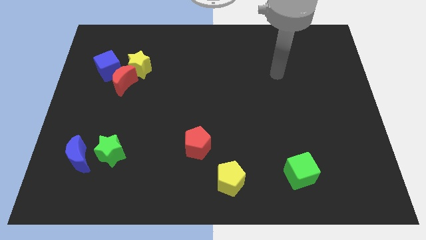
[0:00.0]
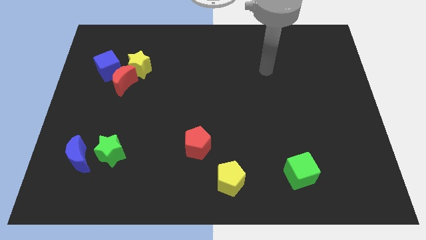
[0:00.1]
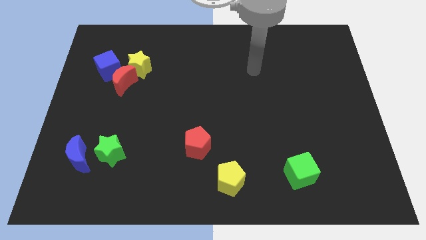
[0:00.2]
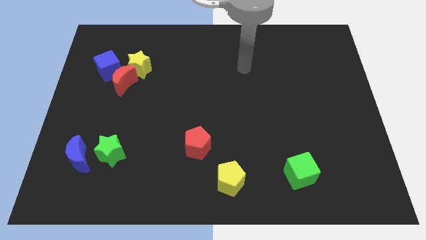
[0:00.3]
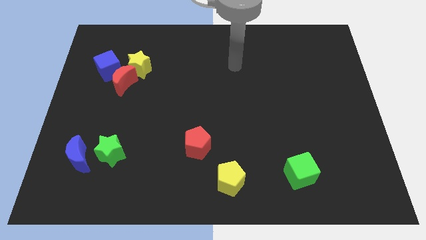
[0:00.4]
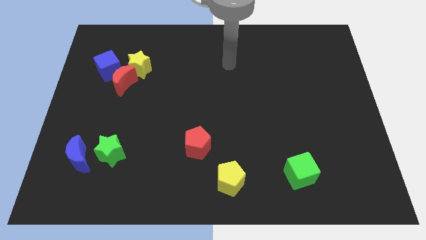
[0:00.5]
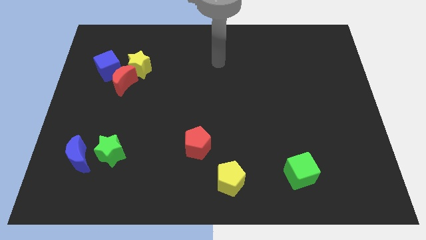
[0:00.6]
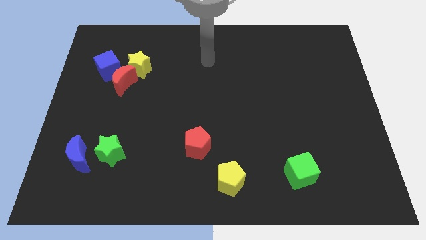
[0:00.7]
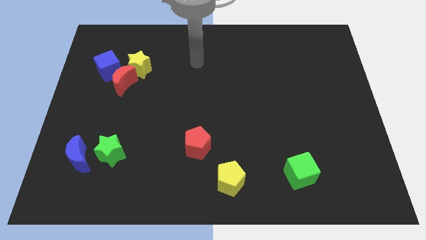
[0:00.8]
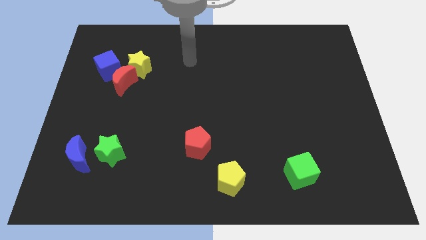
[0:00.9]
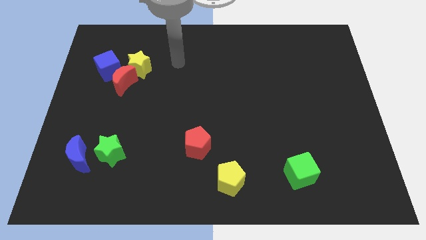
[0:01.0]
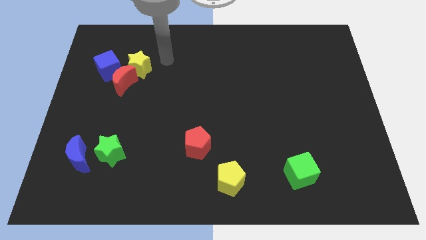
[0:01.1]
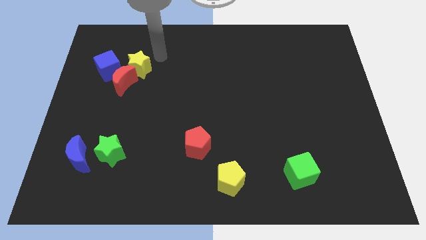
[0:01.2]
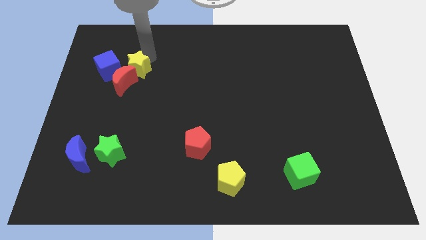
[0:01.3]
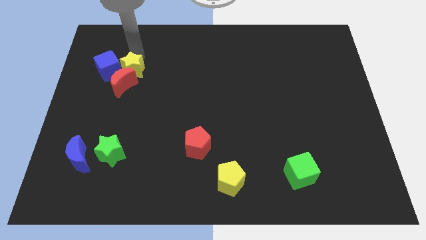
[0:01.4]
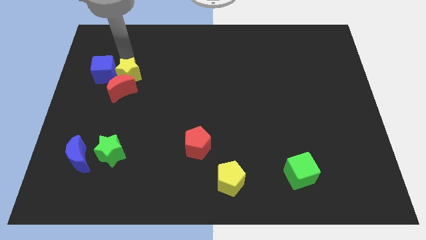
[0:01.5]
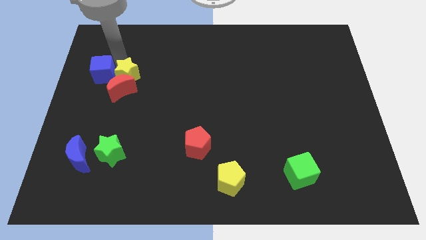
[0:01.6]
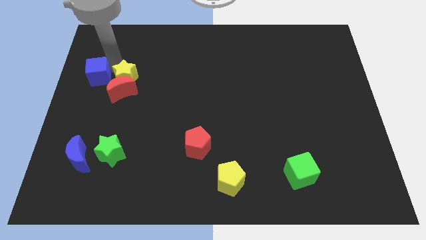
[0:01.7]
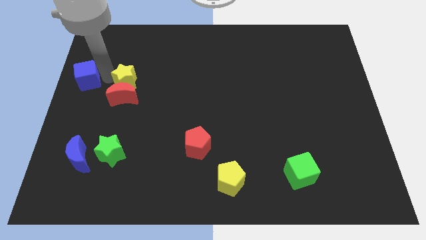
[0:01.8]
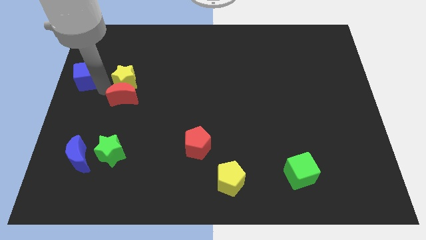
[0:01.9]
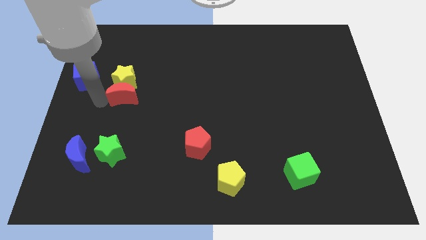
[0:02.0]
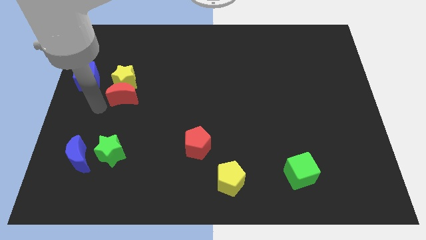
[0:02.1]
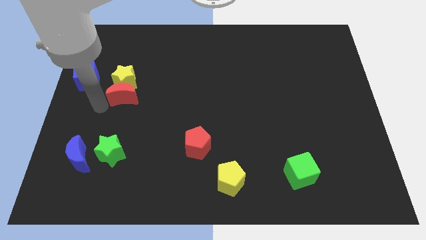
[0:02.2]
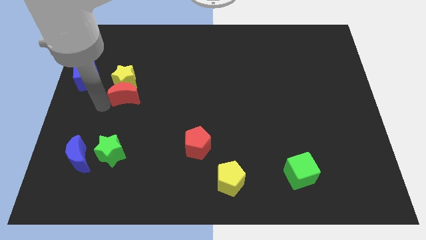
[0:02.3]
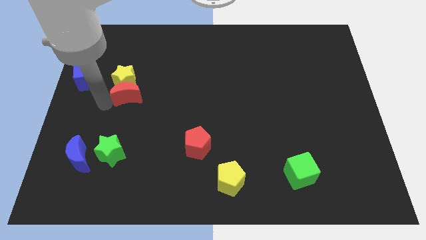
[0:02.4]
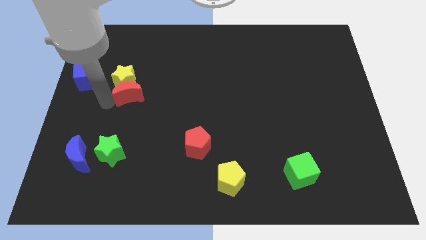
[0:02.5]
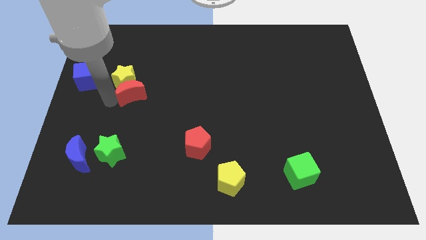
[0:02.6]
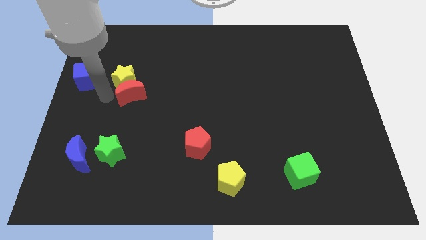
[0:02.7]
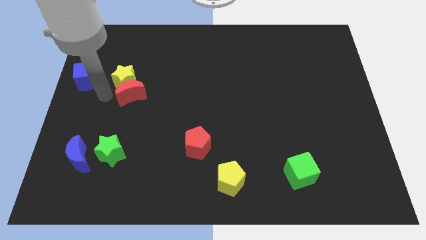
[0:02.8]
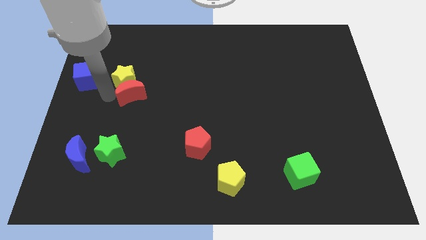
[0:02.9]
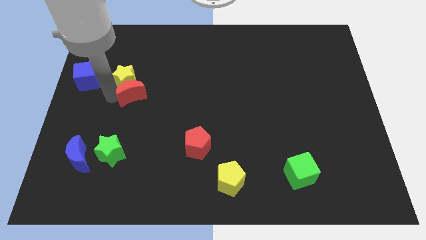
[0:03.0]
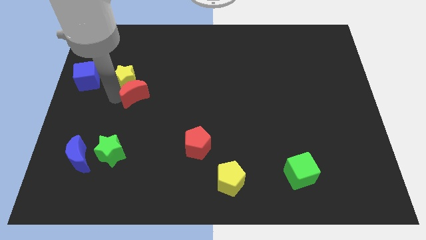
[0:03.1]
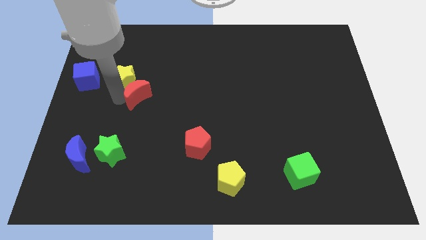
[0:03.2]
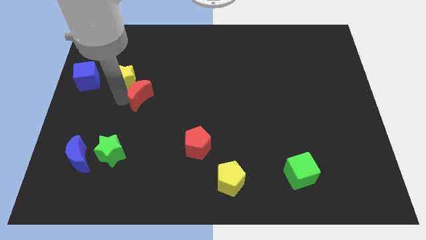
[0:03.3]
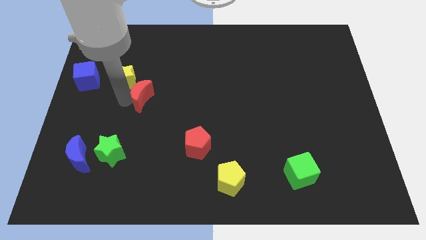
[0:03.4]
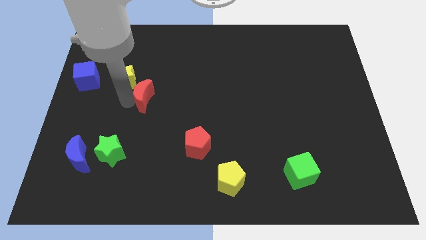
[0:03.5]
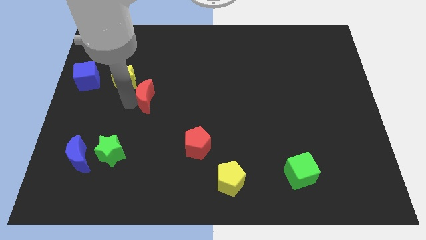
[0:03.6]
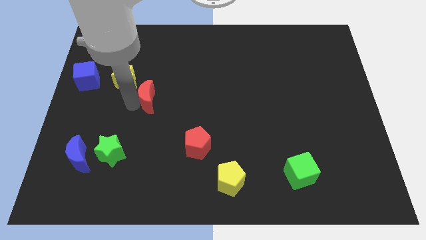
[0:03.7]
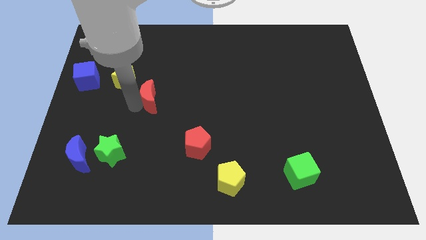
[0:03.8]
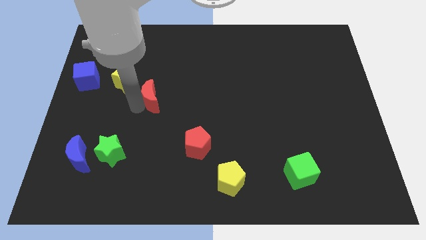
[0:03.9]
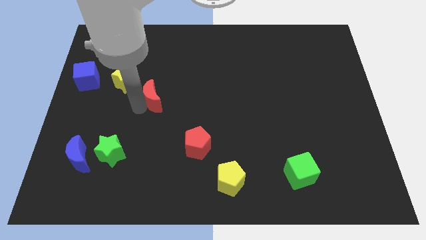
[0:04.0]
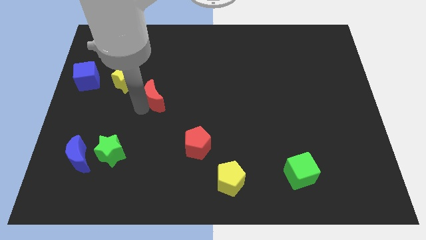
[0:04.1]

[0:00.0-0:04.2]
move the red moon a bit right

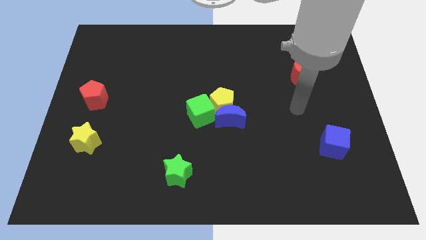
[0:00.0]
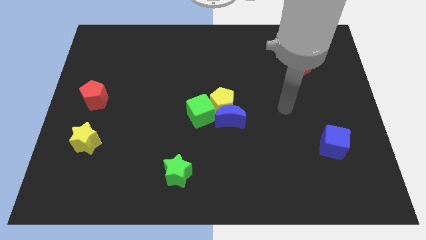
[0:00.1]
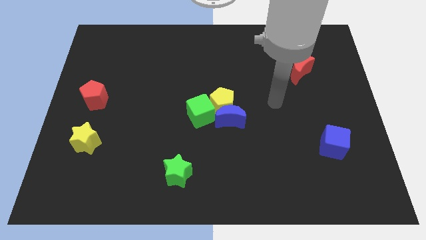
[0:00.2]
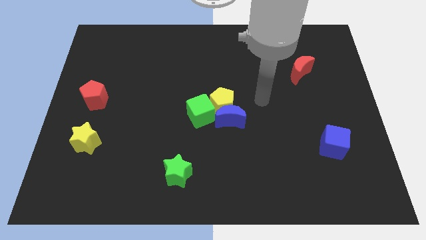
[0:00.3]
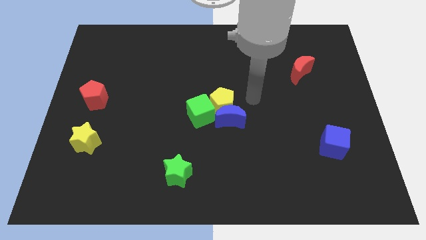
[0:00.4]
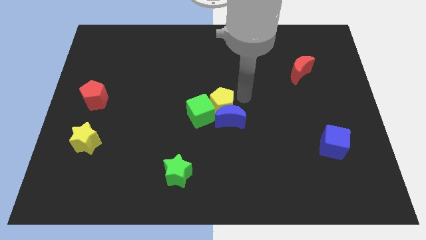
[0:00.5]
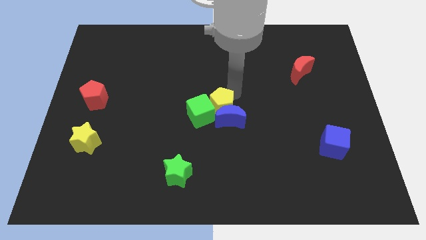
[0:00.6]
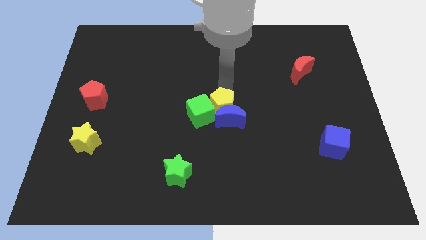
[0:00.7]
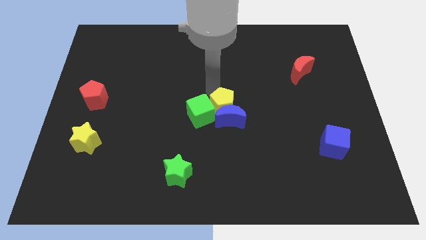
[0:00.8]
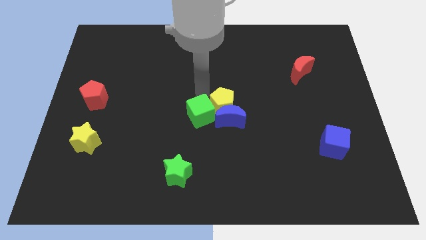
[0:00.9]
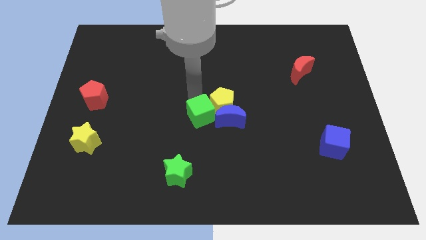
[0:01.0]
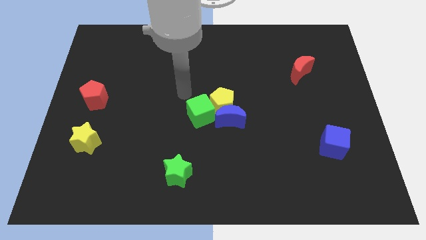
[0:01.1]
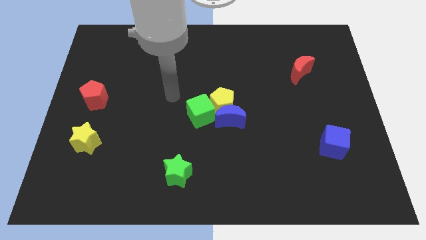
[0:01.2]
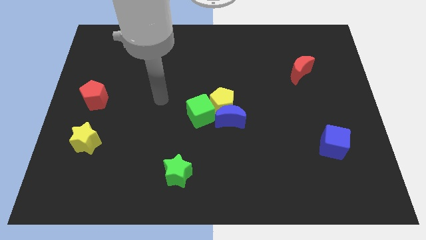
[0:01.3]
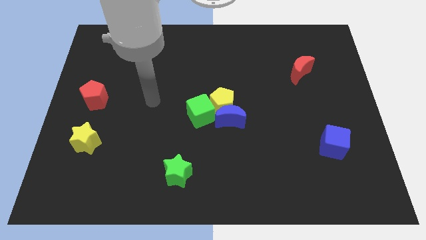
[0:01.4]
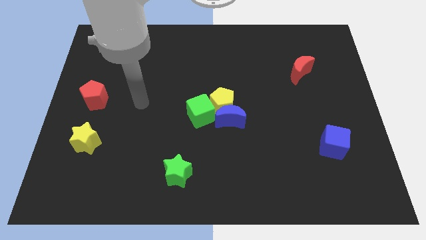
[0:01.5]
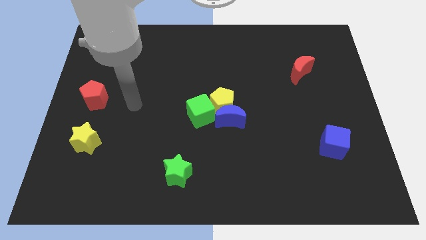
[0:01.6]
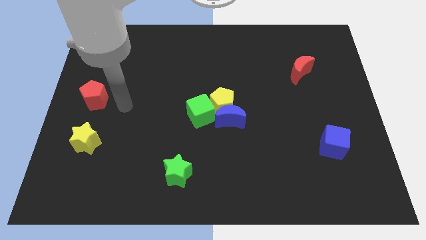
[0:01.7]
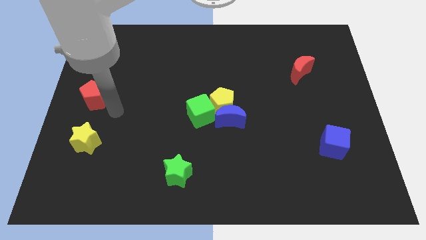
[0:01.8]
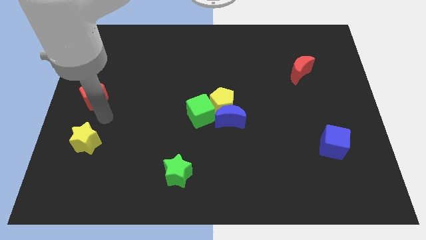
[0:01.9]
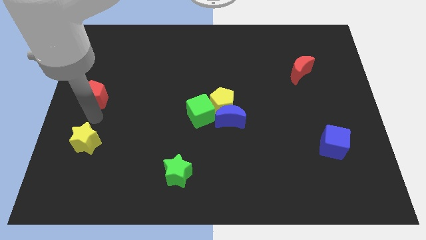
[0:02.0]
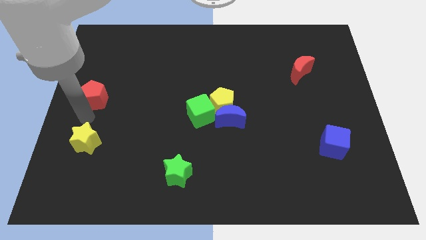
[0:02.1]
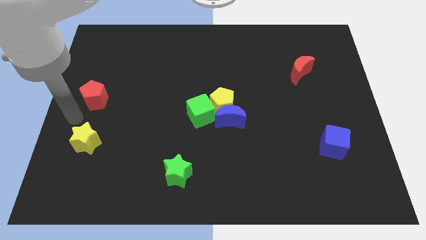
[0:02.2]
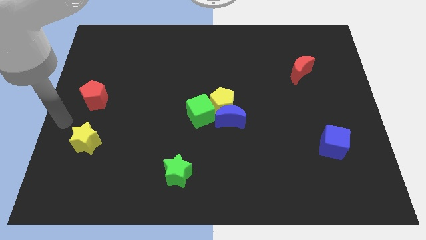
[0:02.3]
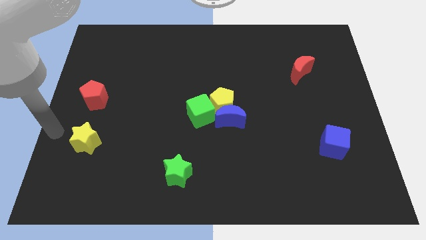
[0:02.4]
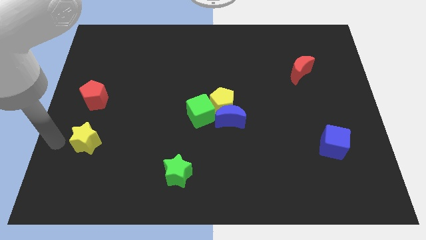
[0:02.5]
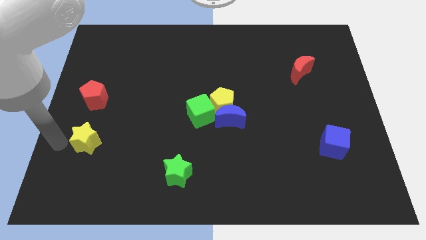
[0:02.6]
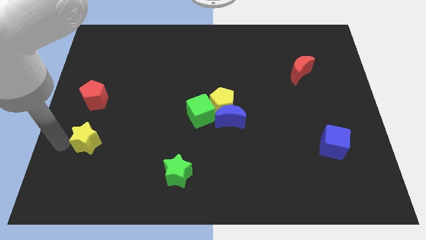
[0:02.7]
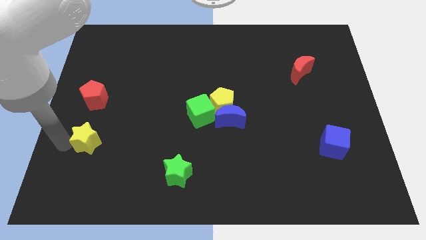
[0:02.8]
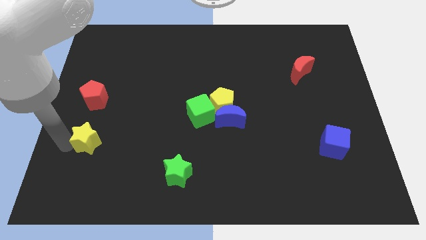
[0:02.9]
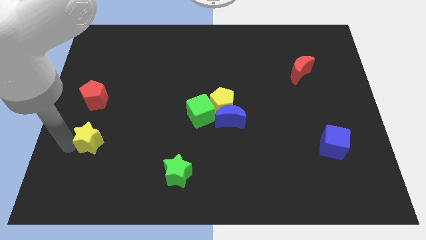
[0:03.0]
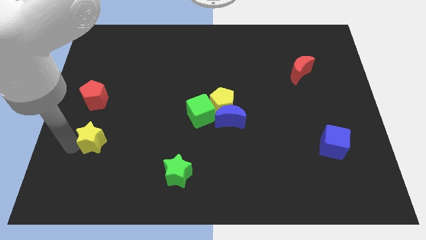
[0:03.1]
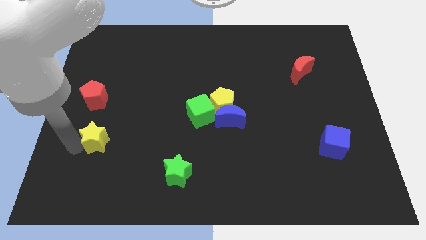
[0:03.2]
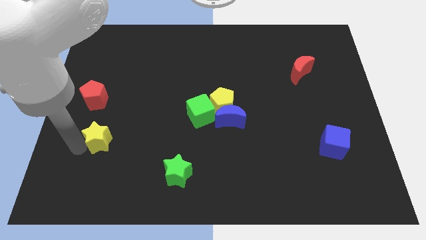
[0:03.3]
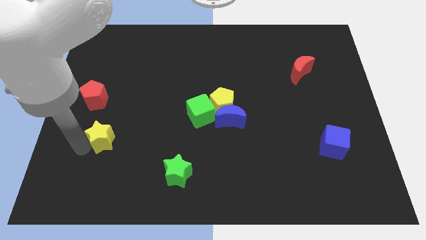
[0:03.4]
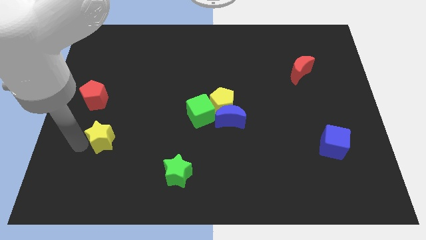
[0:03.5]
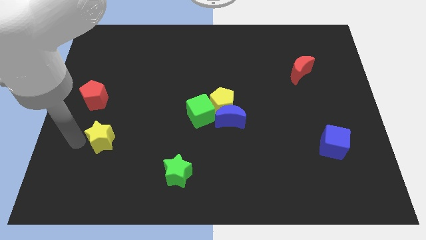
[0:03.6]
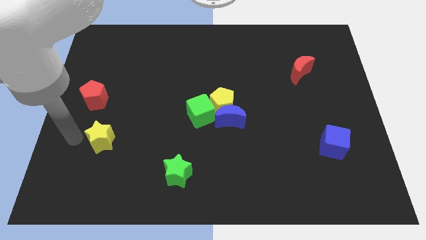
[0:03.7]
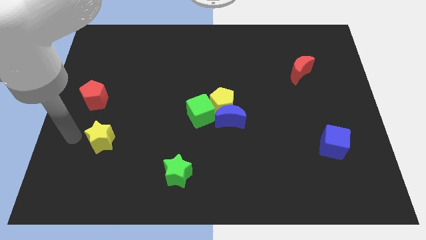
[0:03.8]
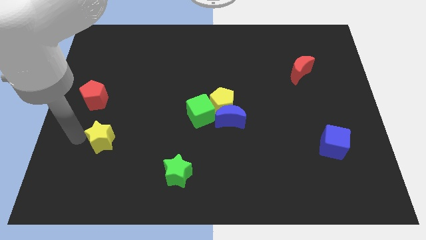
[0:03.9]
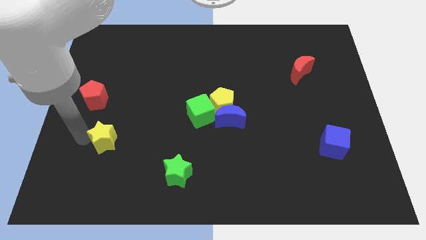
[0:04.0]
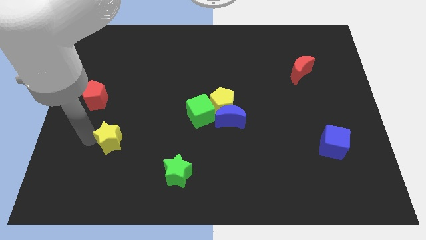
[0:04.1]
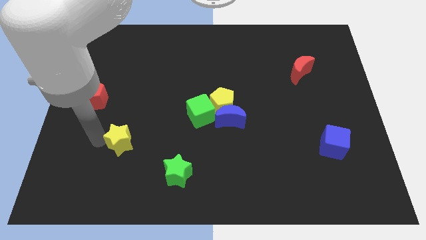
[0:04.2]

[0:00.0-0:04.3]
move the yellow star right slightly
